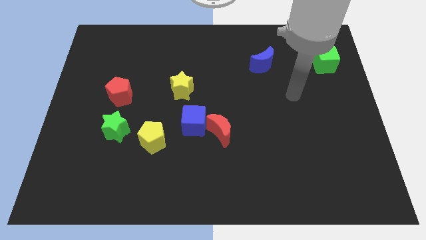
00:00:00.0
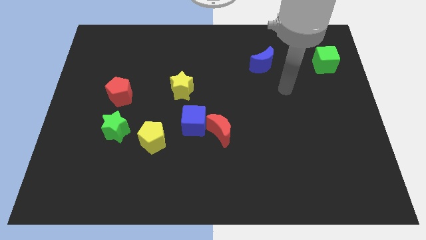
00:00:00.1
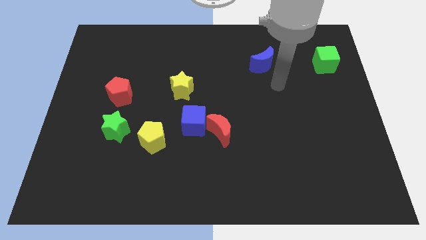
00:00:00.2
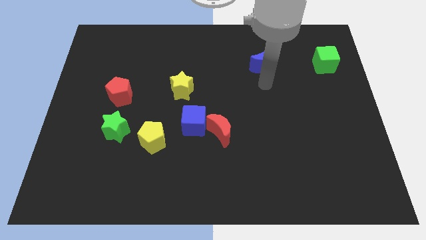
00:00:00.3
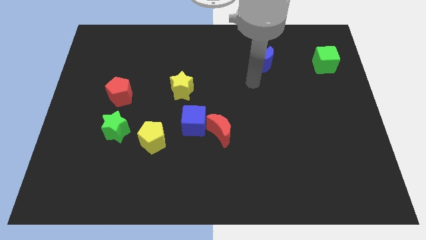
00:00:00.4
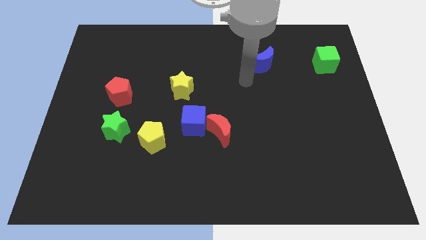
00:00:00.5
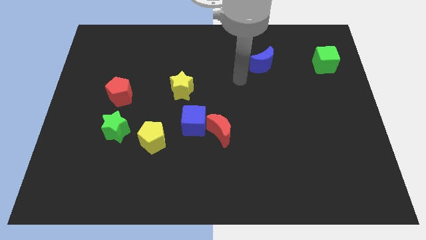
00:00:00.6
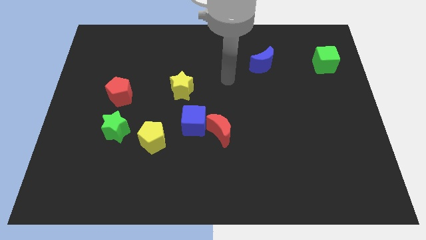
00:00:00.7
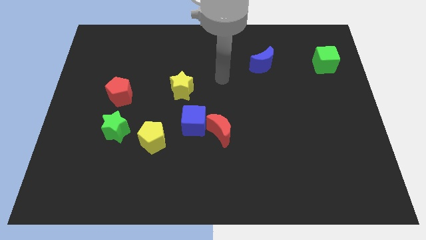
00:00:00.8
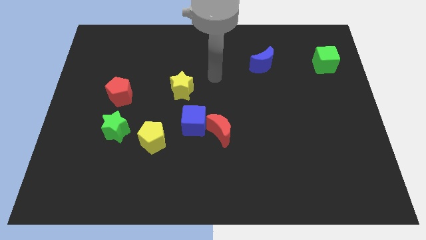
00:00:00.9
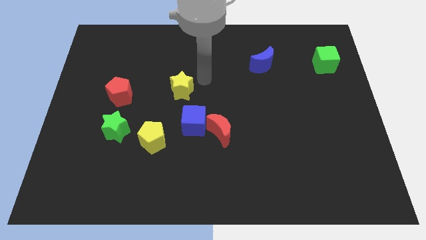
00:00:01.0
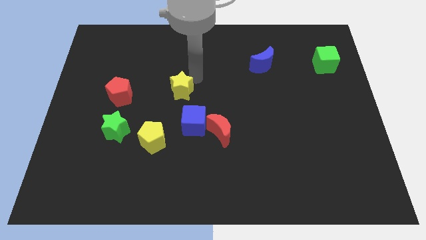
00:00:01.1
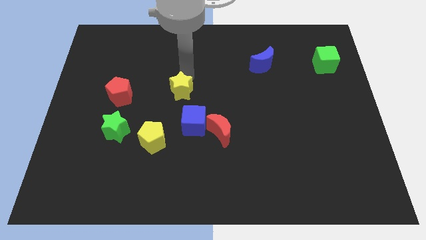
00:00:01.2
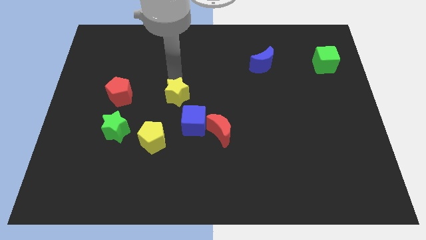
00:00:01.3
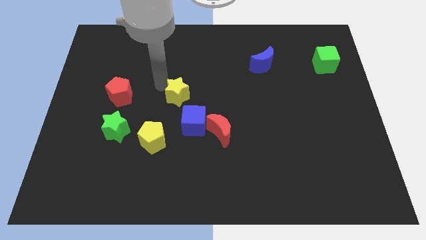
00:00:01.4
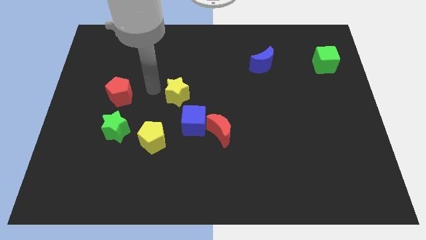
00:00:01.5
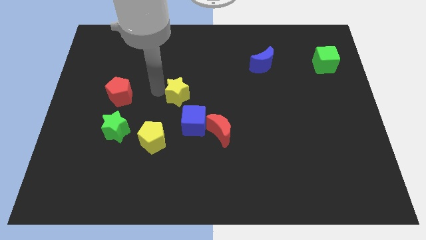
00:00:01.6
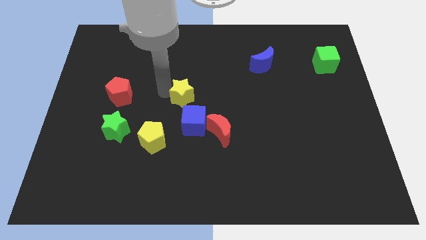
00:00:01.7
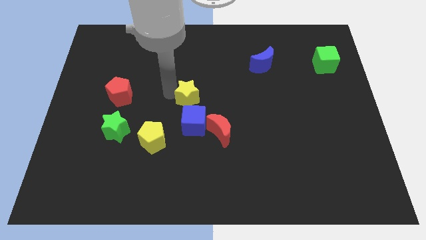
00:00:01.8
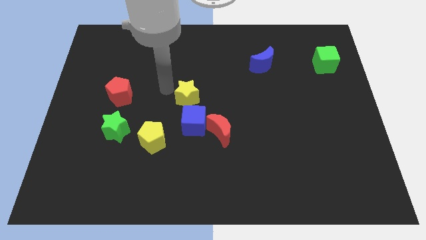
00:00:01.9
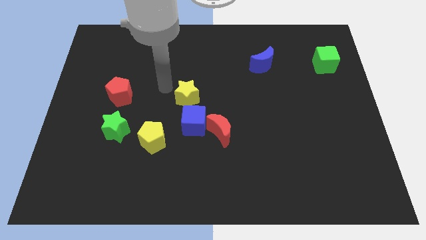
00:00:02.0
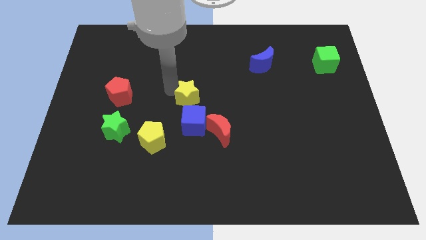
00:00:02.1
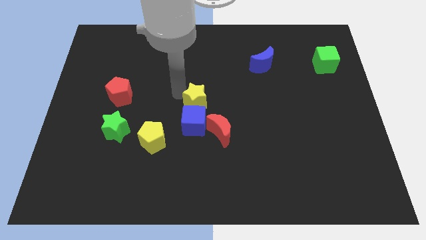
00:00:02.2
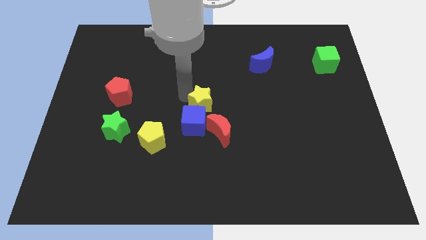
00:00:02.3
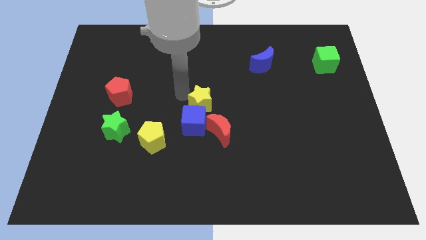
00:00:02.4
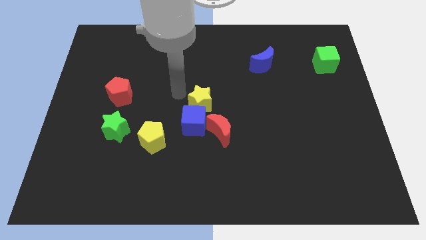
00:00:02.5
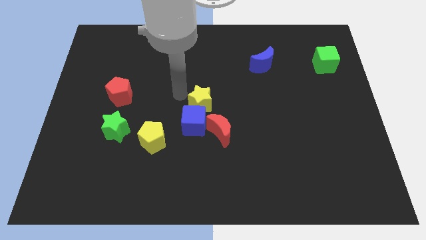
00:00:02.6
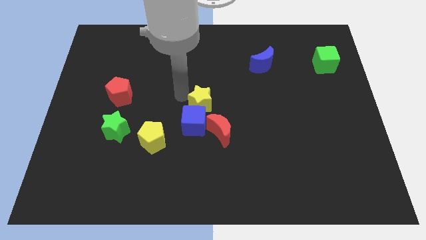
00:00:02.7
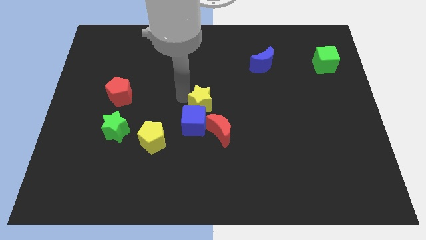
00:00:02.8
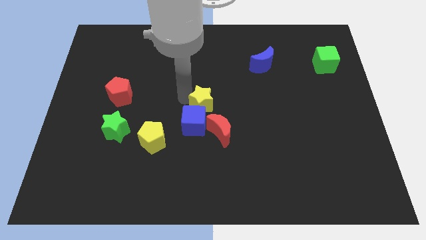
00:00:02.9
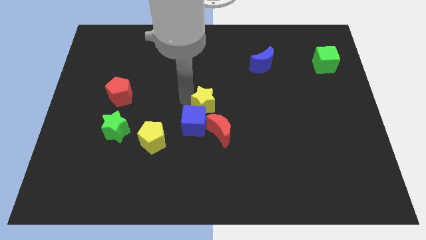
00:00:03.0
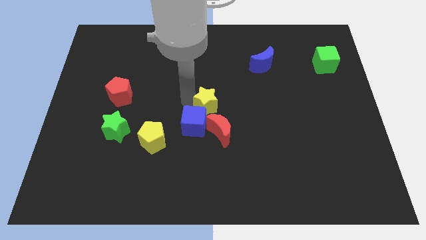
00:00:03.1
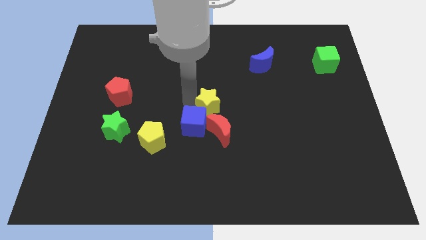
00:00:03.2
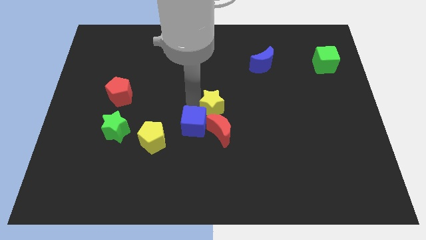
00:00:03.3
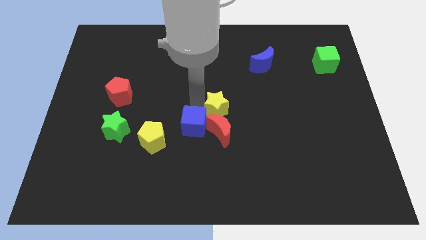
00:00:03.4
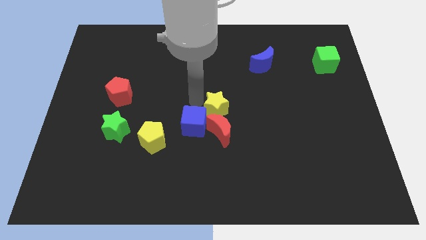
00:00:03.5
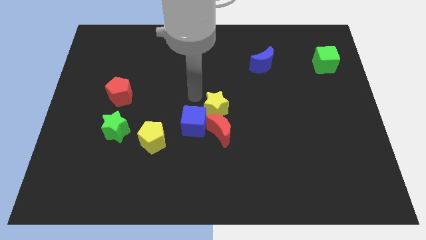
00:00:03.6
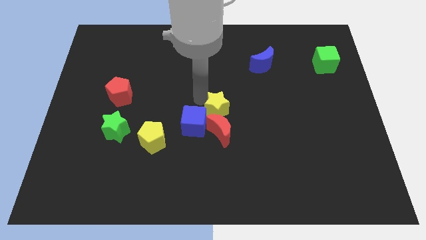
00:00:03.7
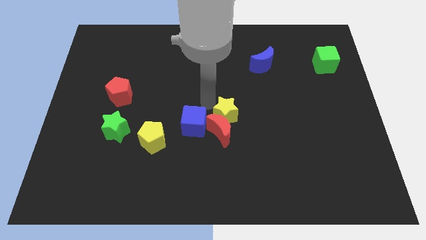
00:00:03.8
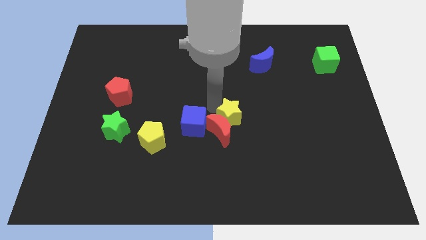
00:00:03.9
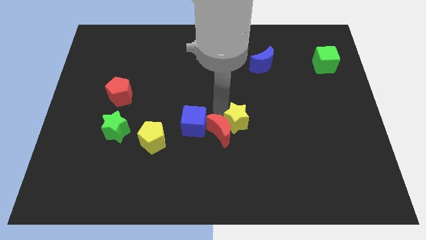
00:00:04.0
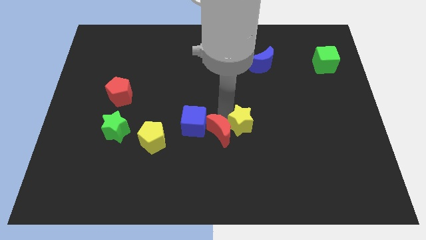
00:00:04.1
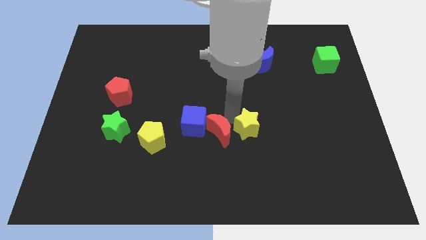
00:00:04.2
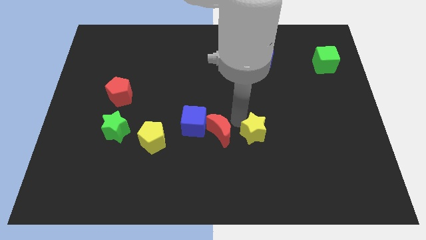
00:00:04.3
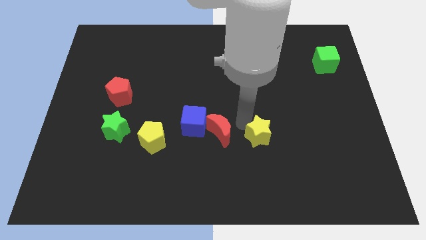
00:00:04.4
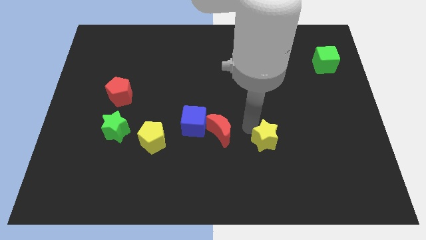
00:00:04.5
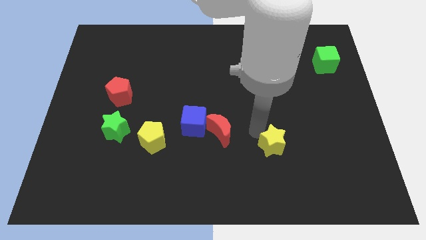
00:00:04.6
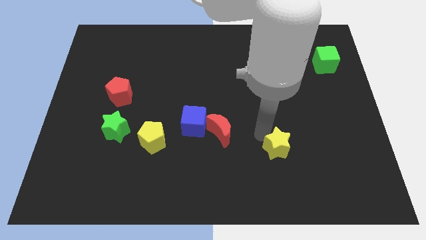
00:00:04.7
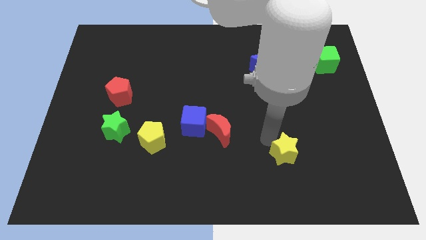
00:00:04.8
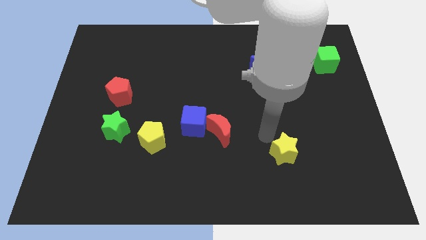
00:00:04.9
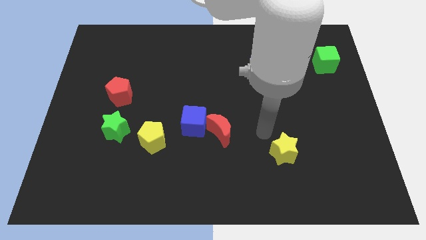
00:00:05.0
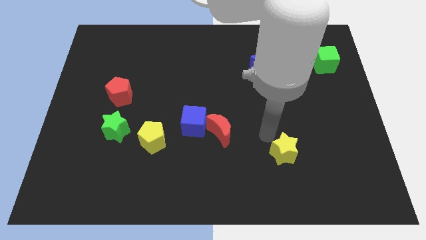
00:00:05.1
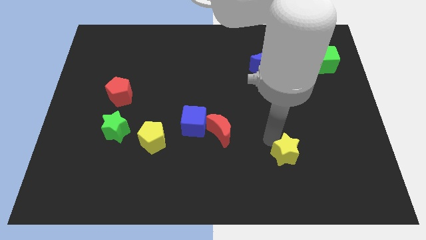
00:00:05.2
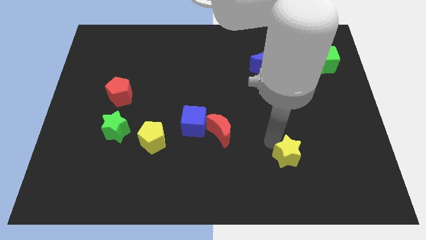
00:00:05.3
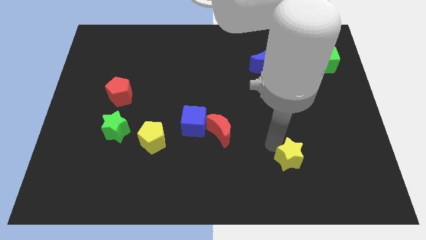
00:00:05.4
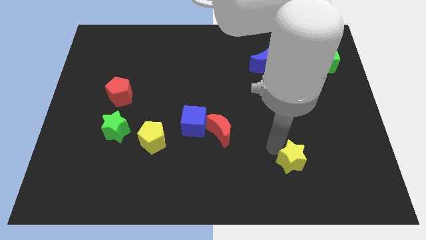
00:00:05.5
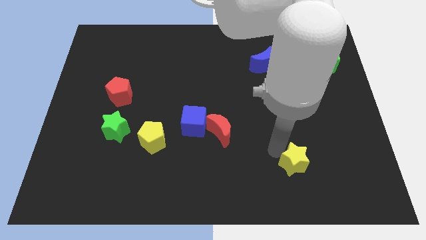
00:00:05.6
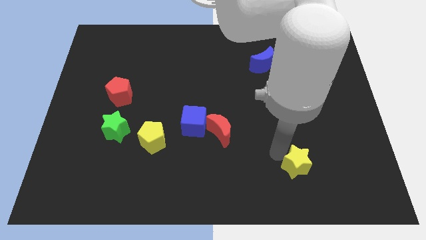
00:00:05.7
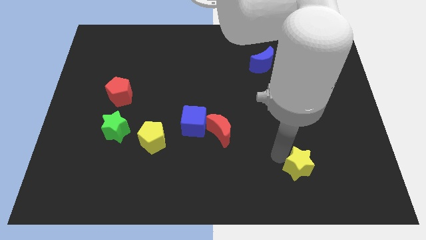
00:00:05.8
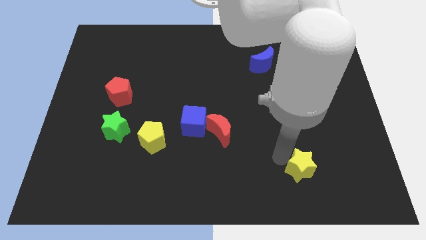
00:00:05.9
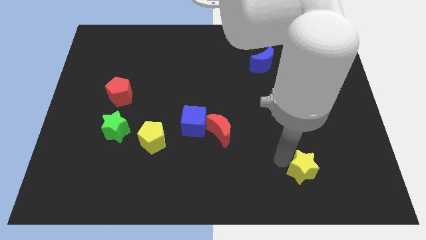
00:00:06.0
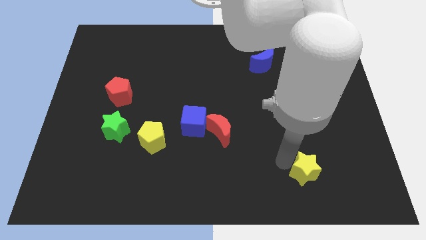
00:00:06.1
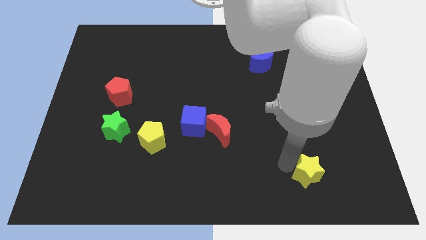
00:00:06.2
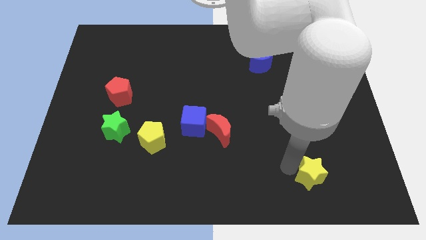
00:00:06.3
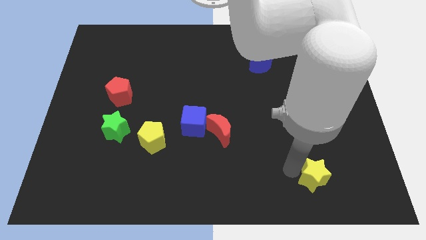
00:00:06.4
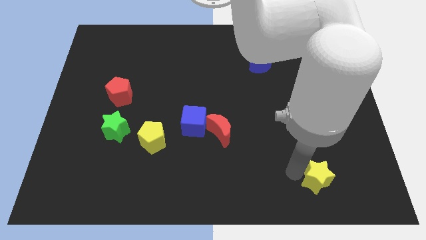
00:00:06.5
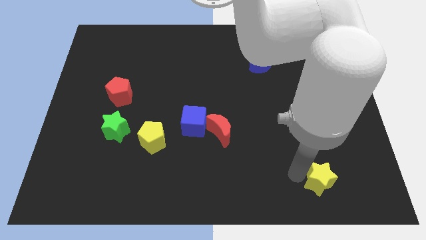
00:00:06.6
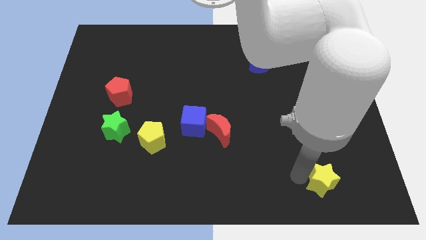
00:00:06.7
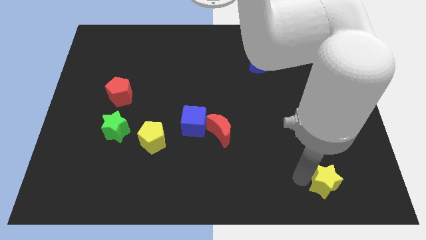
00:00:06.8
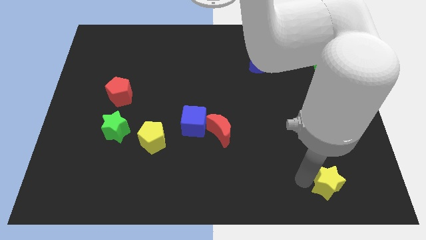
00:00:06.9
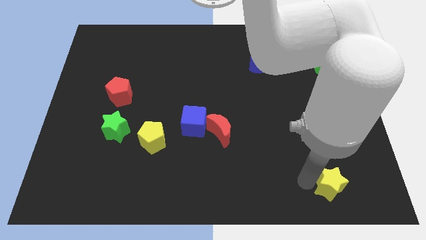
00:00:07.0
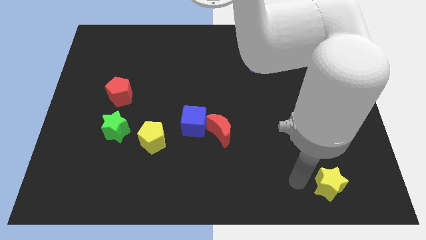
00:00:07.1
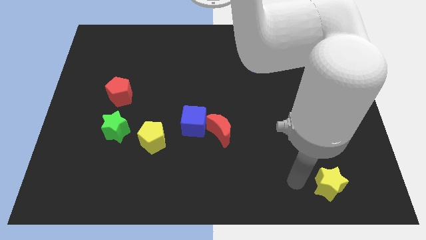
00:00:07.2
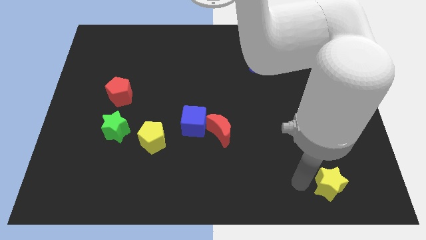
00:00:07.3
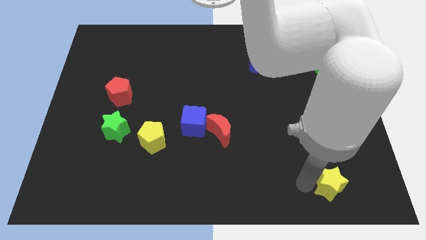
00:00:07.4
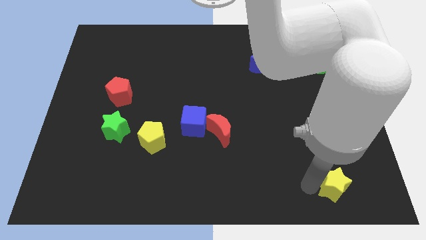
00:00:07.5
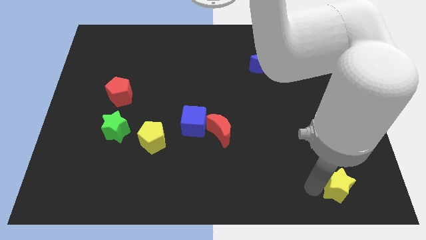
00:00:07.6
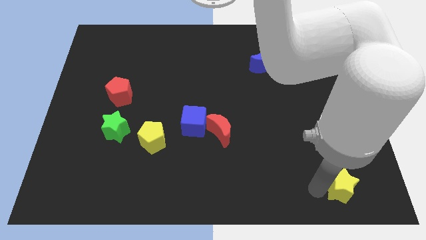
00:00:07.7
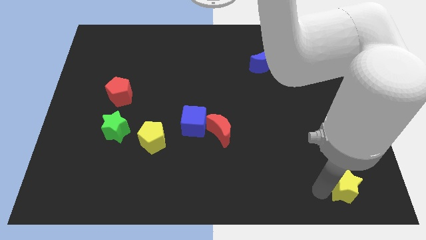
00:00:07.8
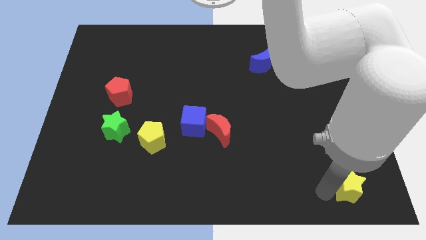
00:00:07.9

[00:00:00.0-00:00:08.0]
push the yellow star to the bottom right corner
